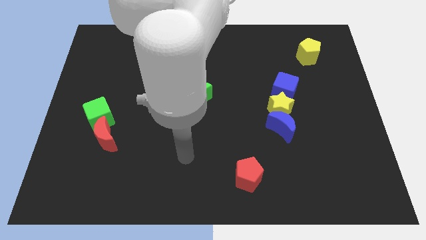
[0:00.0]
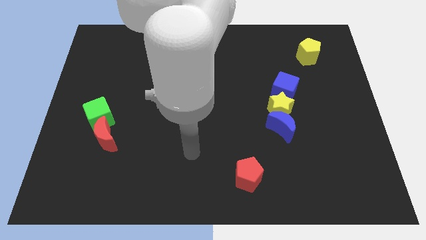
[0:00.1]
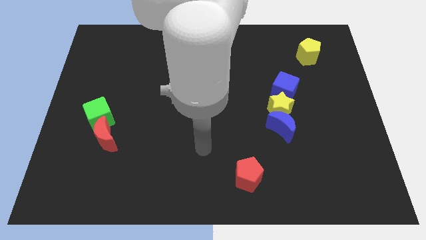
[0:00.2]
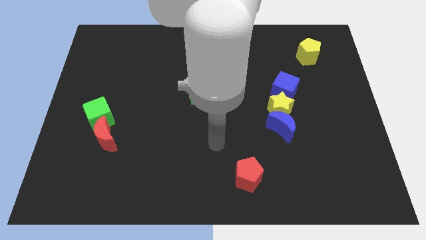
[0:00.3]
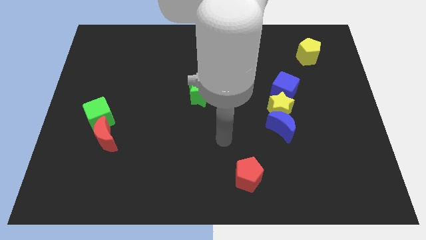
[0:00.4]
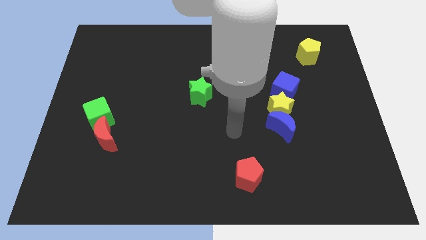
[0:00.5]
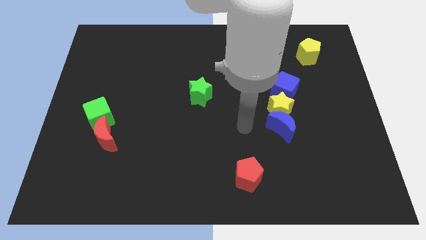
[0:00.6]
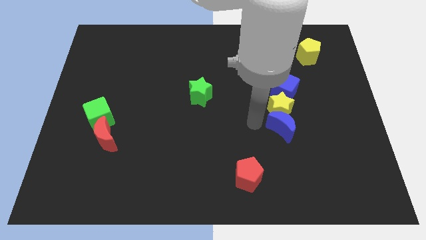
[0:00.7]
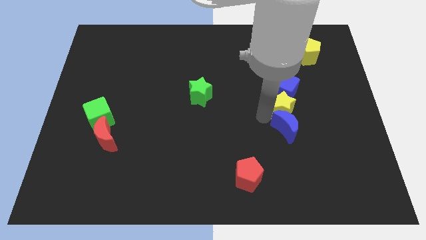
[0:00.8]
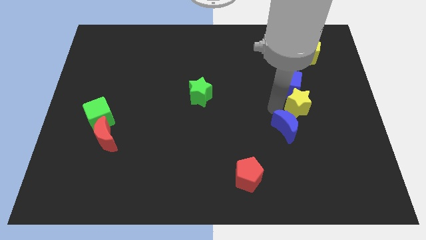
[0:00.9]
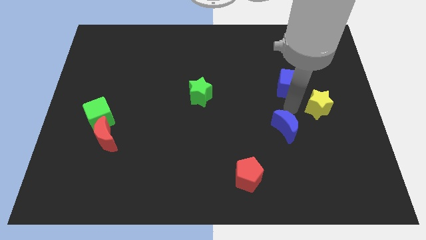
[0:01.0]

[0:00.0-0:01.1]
move the blue moon away from the yellow star

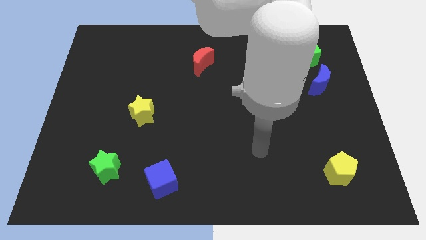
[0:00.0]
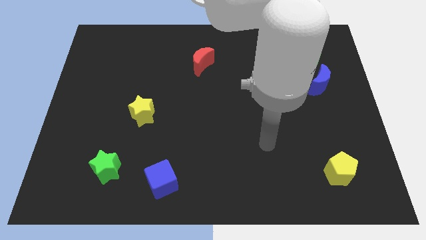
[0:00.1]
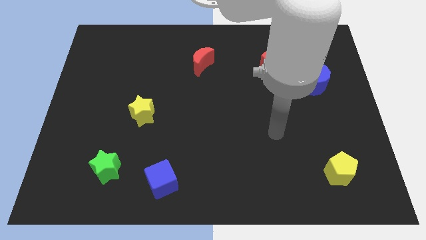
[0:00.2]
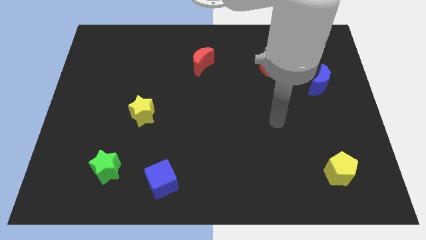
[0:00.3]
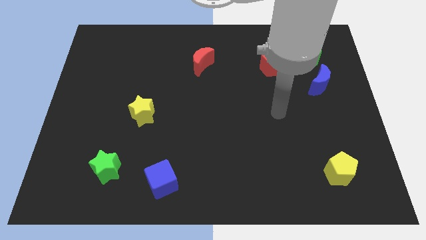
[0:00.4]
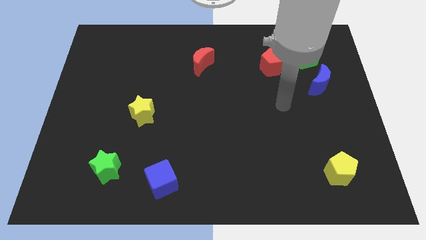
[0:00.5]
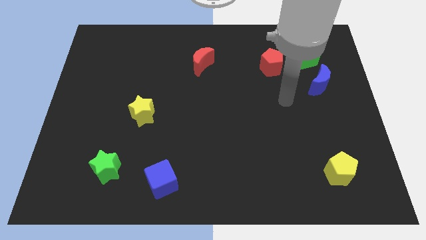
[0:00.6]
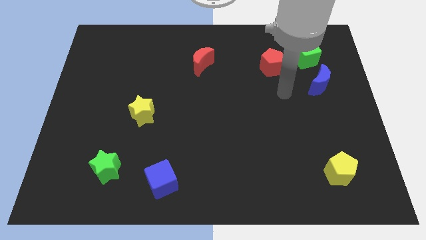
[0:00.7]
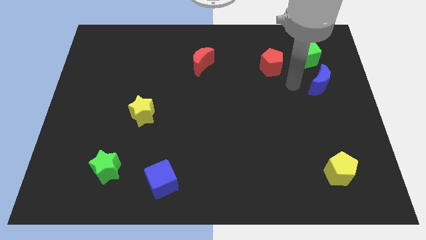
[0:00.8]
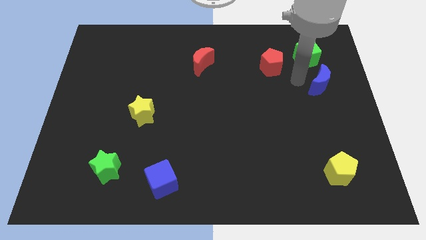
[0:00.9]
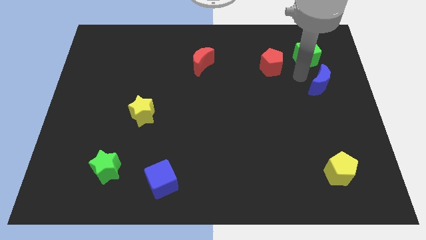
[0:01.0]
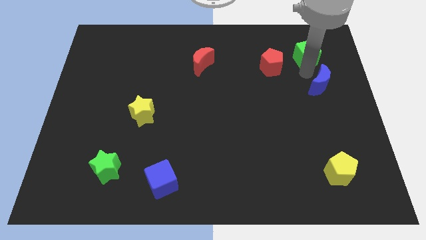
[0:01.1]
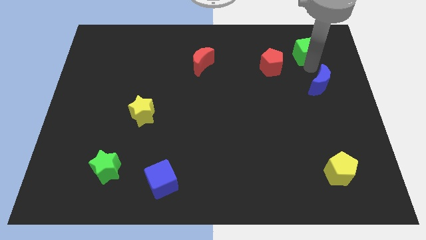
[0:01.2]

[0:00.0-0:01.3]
pull the blue moon apart from the green cube

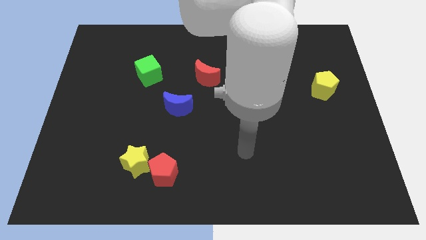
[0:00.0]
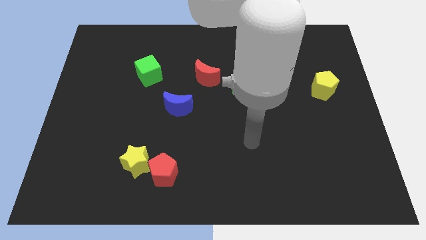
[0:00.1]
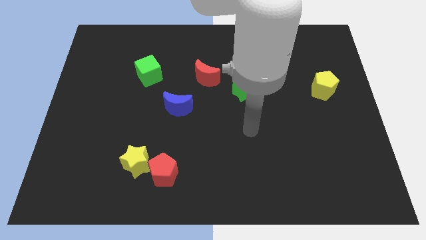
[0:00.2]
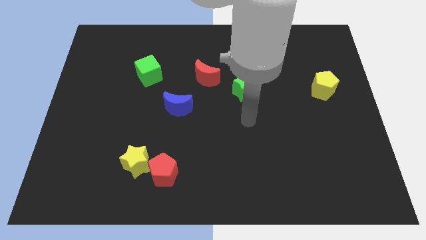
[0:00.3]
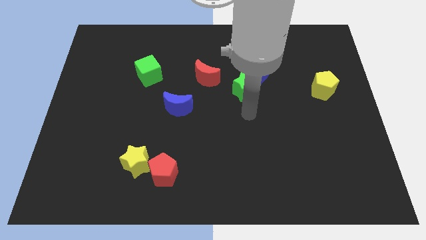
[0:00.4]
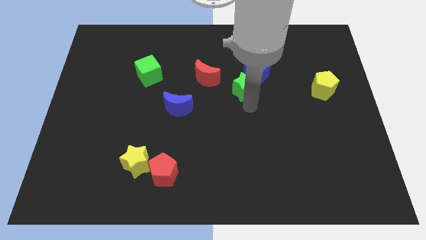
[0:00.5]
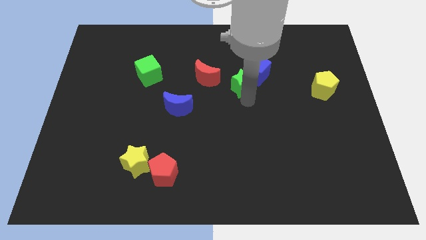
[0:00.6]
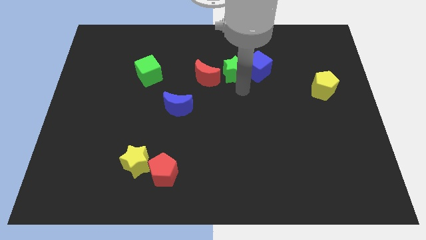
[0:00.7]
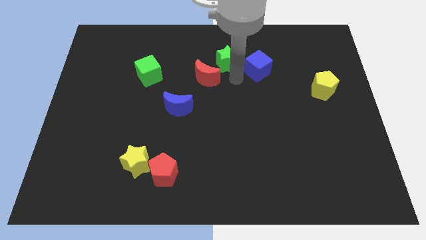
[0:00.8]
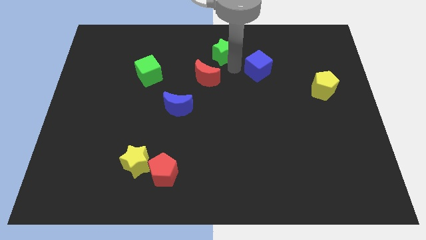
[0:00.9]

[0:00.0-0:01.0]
separate the blue cube from the green star

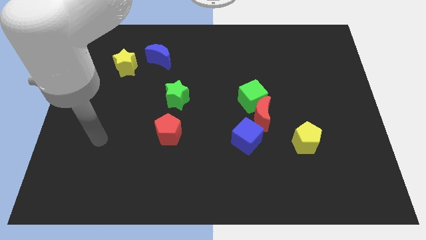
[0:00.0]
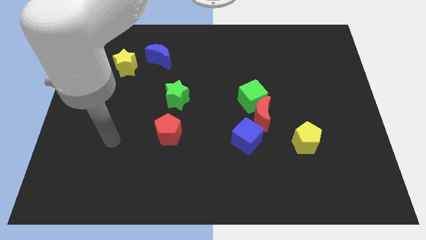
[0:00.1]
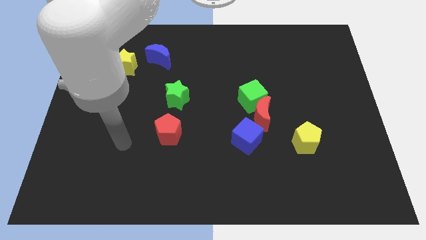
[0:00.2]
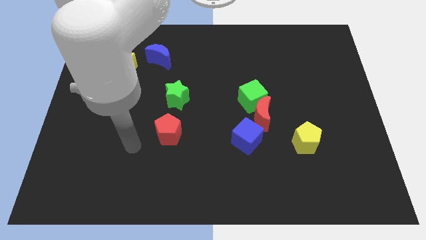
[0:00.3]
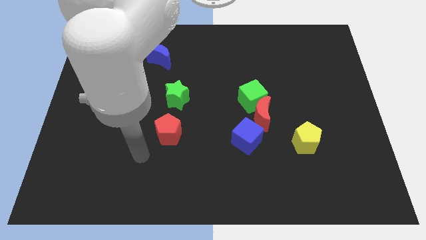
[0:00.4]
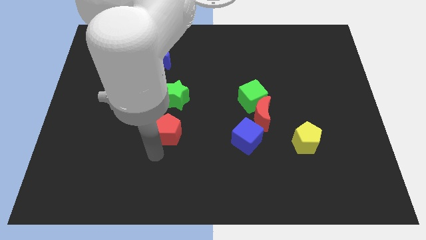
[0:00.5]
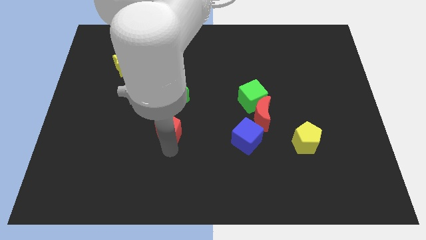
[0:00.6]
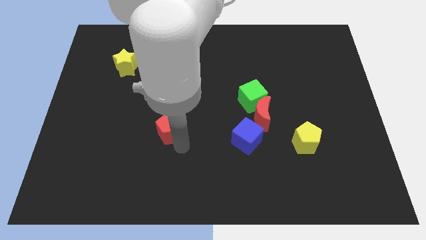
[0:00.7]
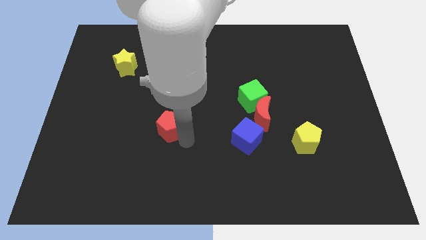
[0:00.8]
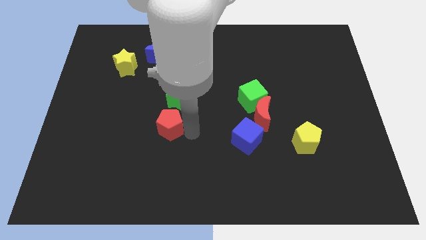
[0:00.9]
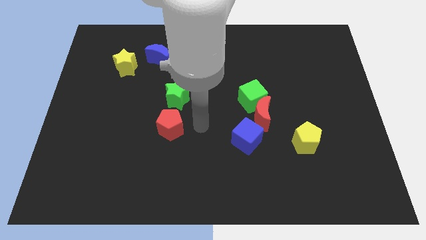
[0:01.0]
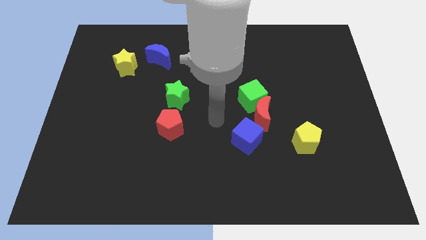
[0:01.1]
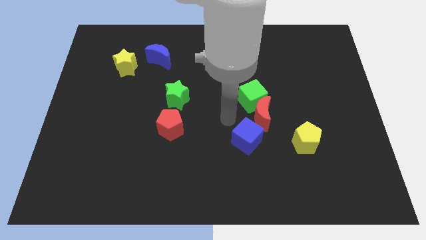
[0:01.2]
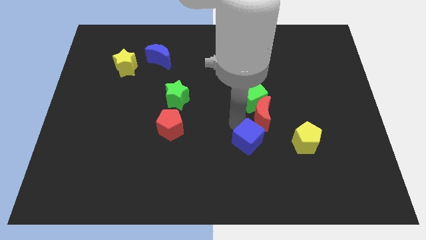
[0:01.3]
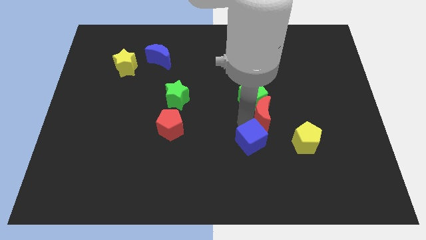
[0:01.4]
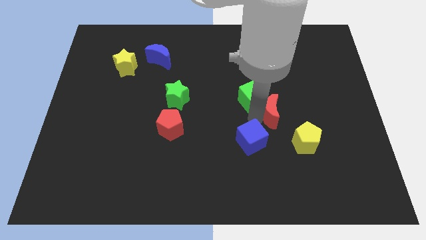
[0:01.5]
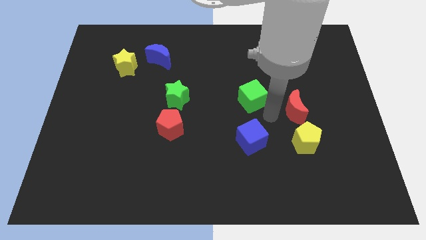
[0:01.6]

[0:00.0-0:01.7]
separate the green cube from the red moon

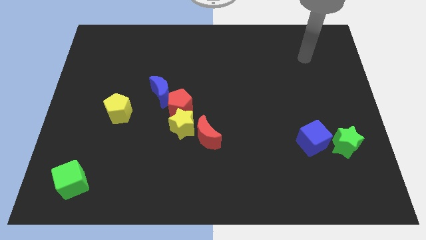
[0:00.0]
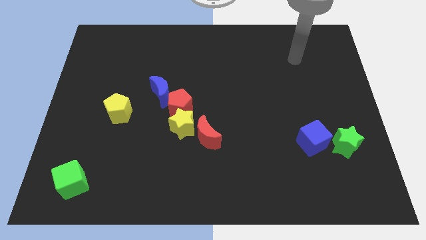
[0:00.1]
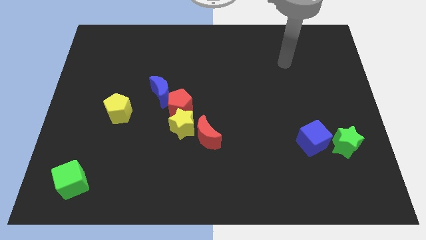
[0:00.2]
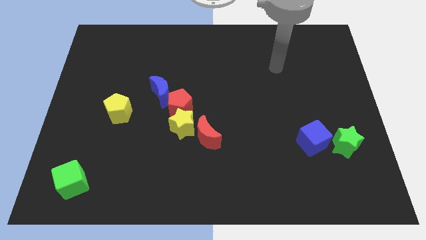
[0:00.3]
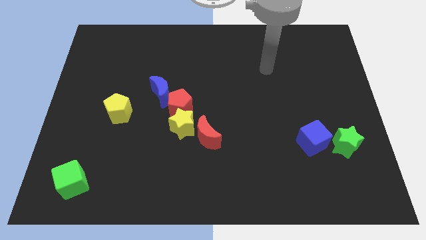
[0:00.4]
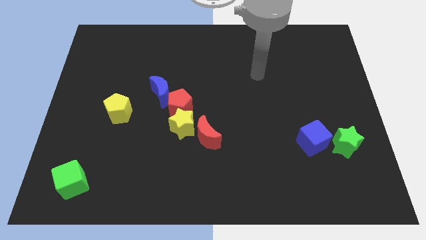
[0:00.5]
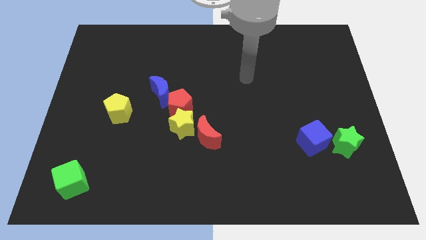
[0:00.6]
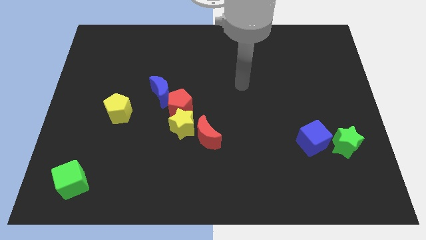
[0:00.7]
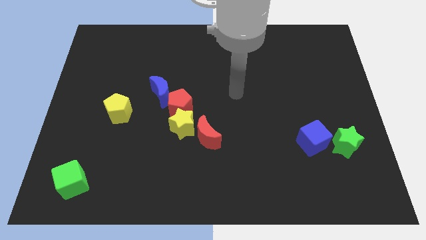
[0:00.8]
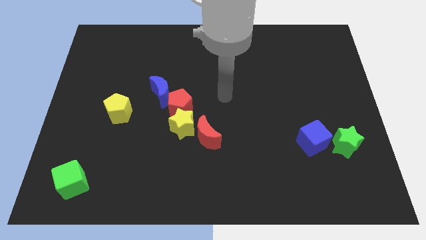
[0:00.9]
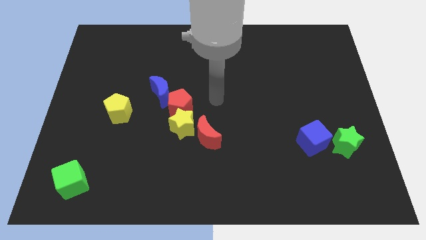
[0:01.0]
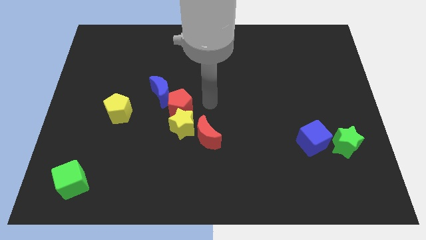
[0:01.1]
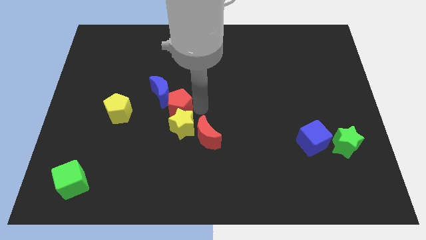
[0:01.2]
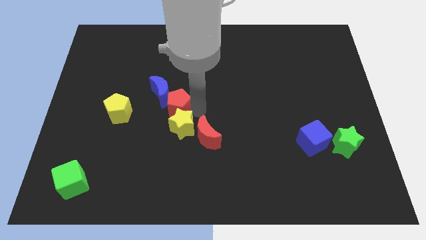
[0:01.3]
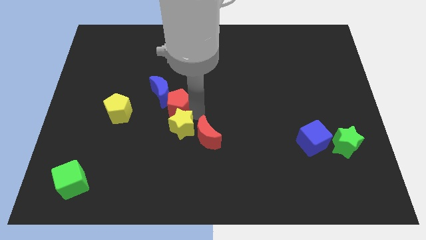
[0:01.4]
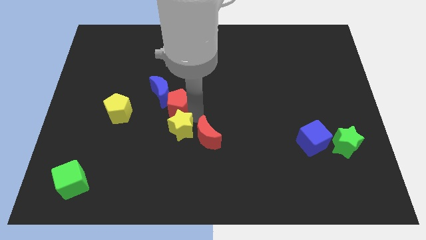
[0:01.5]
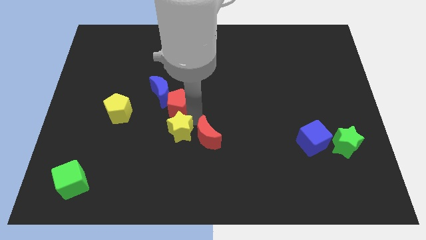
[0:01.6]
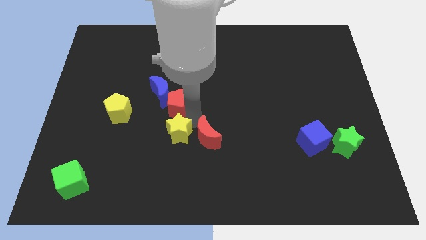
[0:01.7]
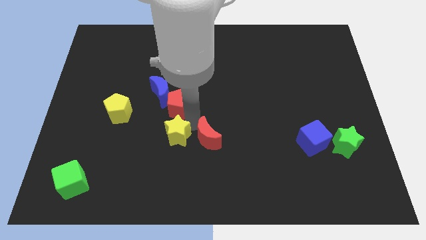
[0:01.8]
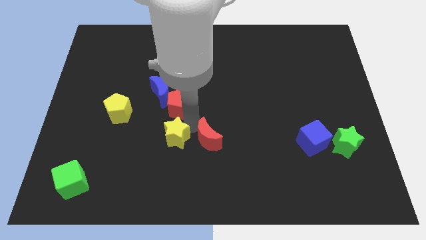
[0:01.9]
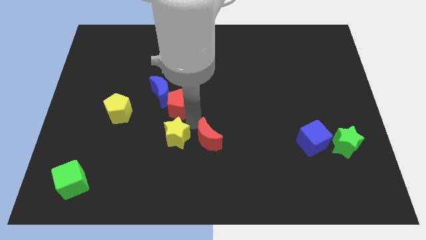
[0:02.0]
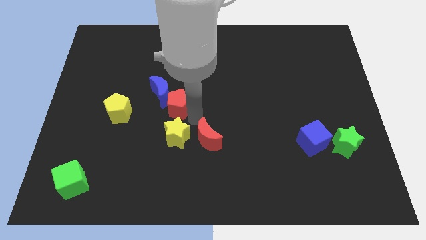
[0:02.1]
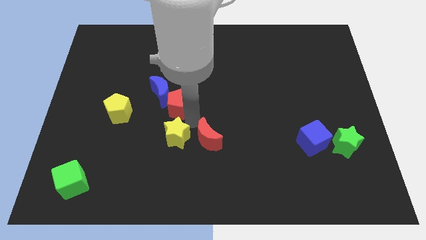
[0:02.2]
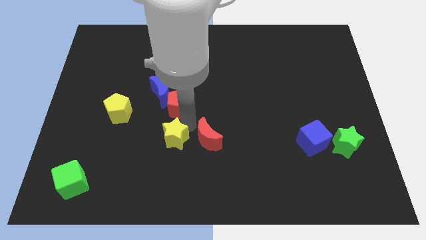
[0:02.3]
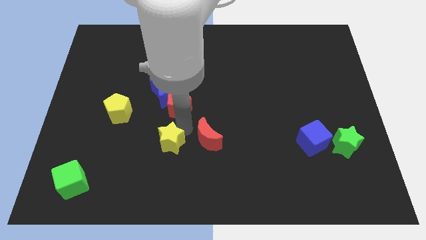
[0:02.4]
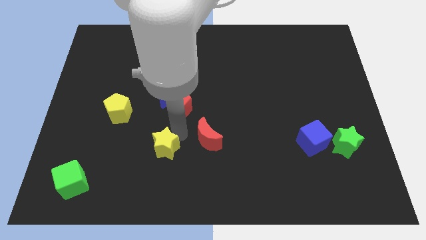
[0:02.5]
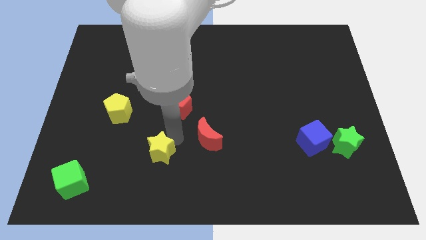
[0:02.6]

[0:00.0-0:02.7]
move the yellow star away from the red pentagon and red moon

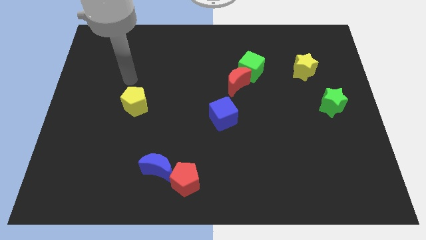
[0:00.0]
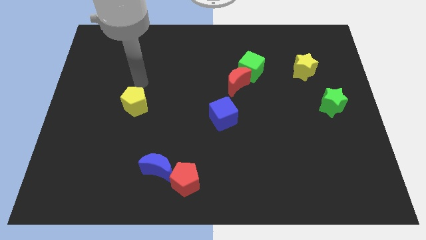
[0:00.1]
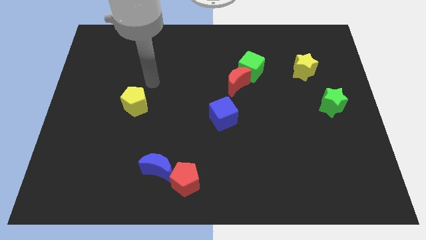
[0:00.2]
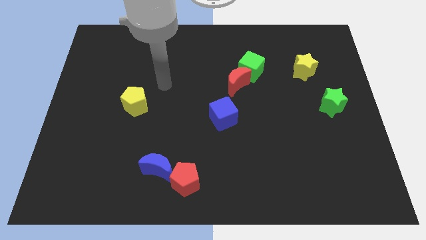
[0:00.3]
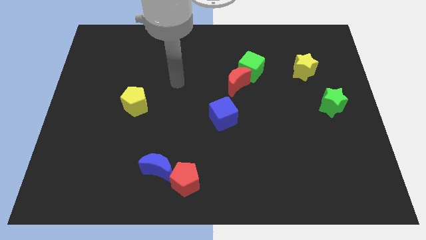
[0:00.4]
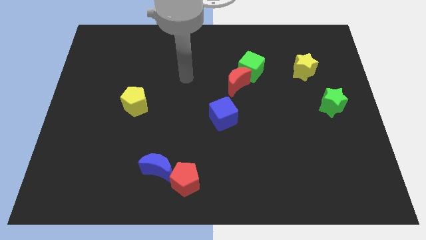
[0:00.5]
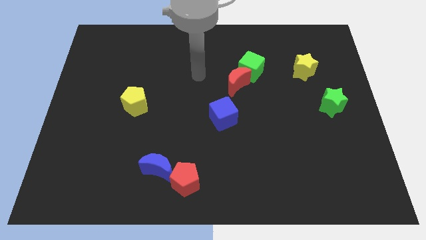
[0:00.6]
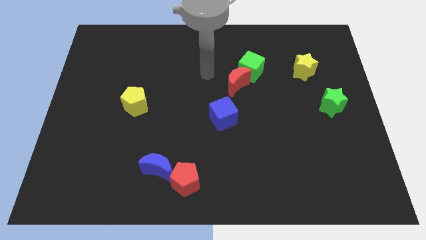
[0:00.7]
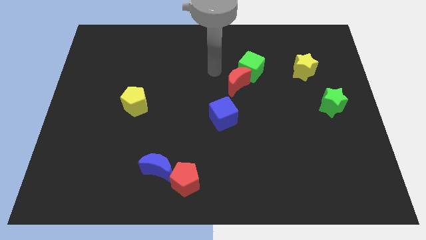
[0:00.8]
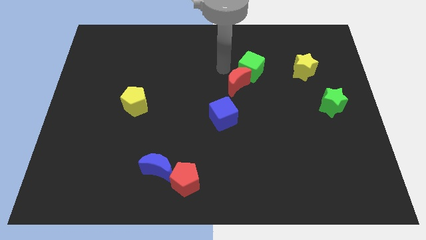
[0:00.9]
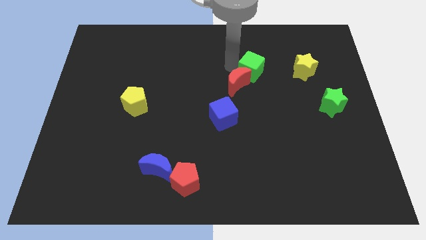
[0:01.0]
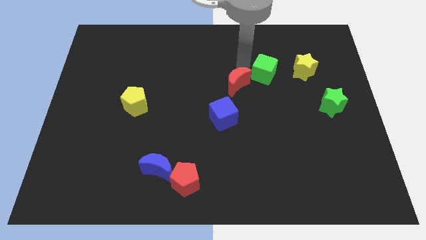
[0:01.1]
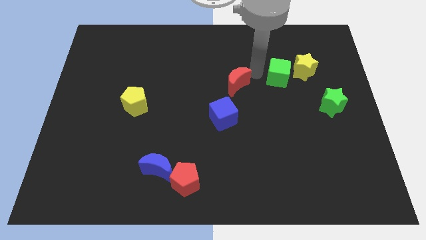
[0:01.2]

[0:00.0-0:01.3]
pull the red moon apart from the green cube

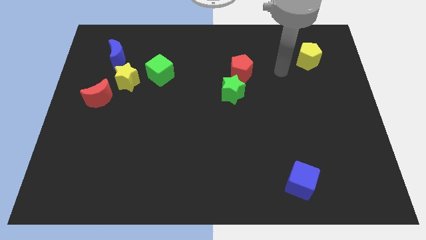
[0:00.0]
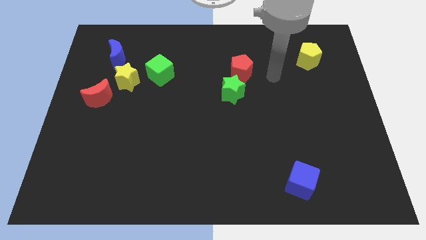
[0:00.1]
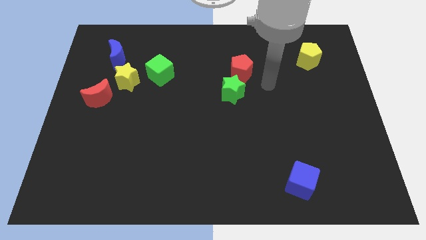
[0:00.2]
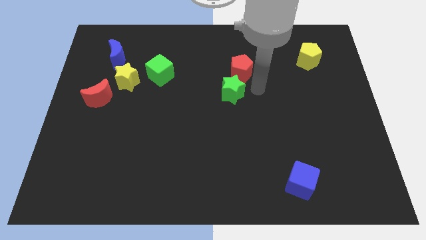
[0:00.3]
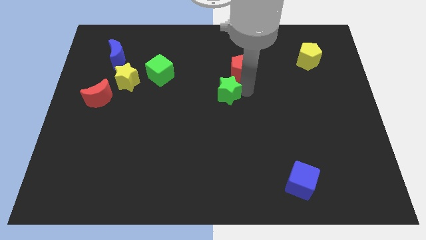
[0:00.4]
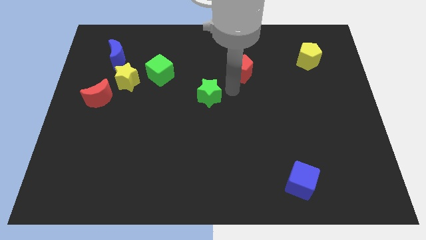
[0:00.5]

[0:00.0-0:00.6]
move the red pentagon away from the green star
